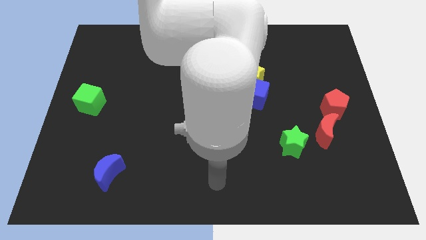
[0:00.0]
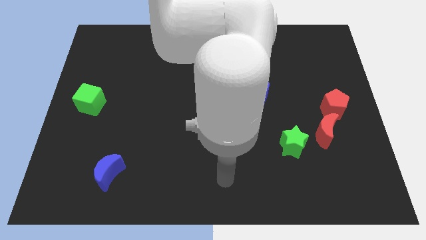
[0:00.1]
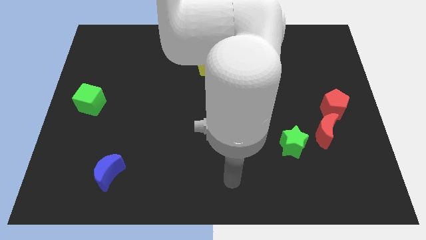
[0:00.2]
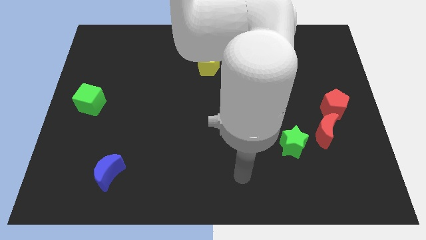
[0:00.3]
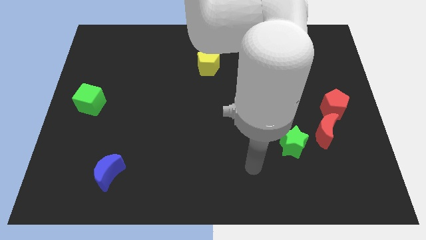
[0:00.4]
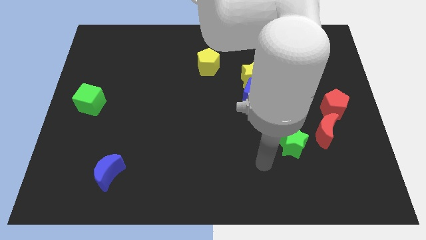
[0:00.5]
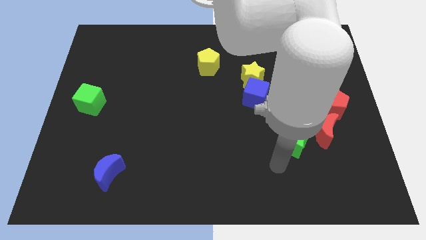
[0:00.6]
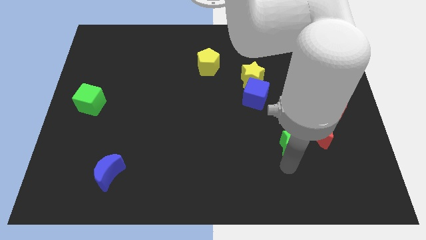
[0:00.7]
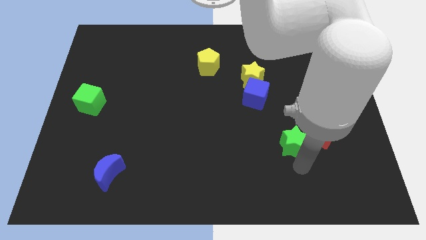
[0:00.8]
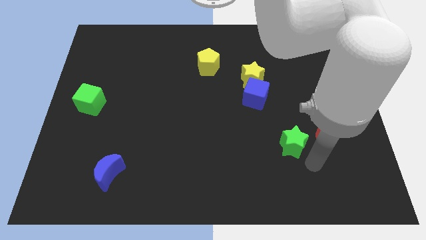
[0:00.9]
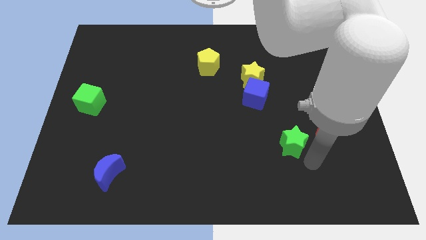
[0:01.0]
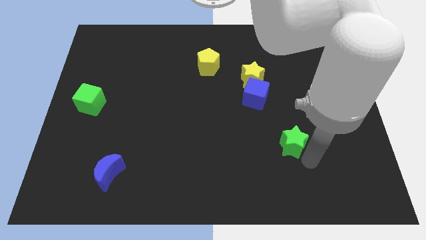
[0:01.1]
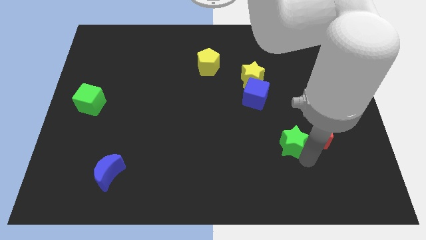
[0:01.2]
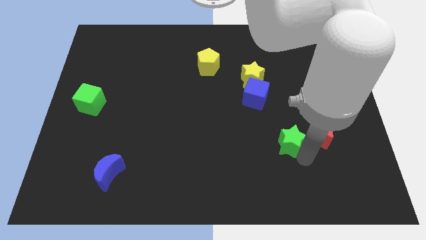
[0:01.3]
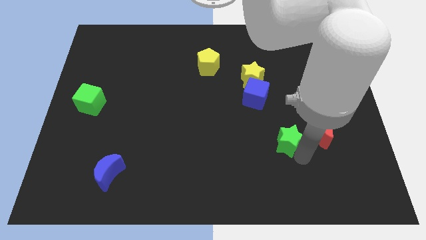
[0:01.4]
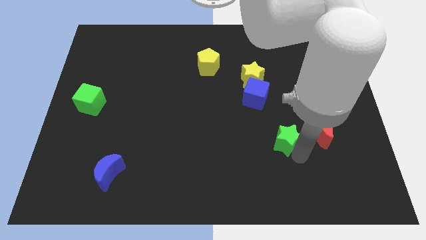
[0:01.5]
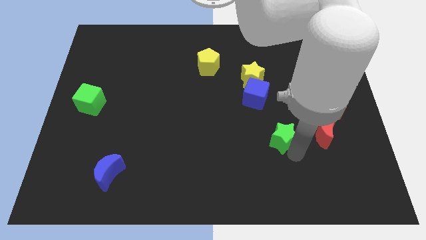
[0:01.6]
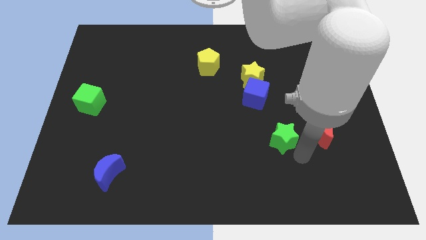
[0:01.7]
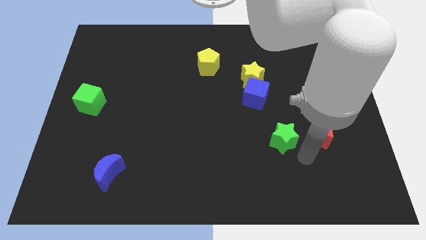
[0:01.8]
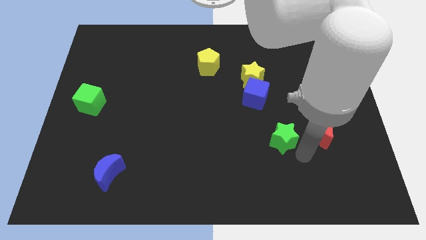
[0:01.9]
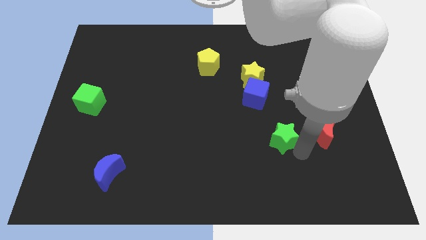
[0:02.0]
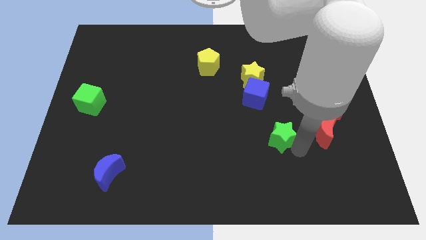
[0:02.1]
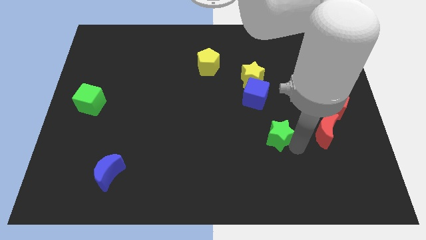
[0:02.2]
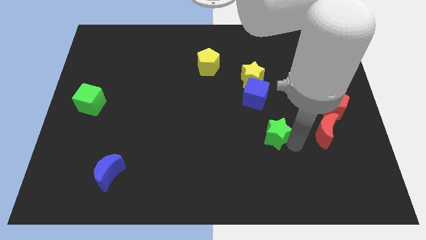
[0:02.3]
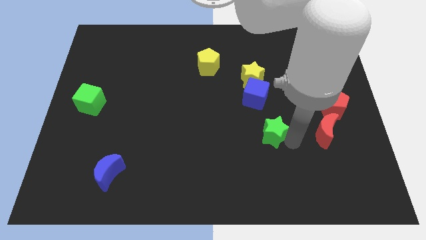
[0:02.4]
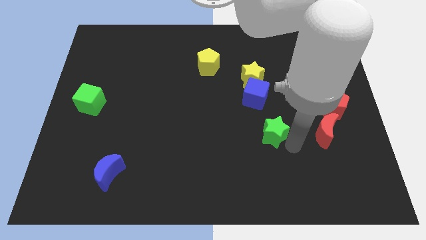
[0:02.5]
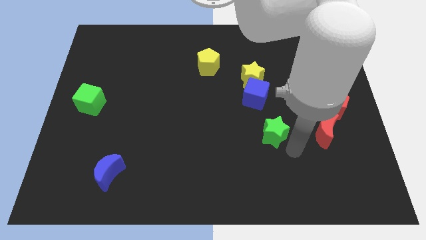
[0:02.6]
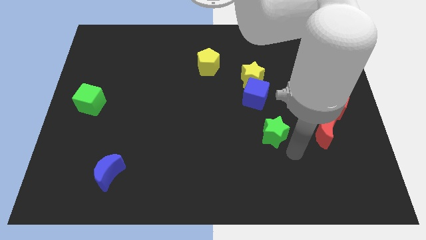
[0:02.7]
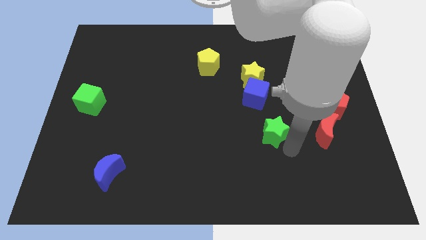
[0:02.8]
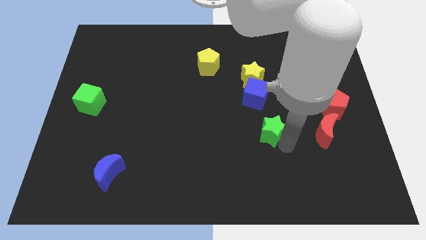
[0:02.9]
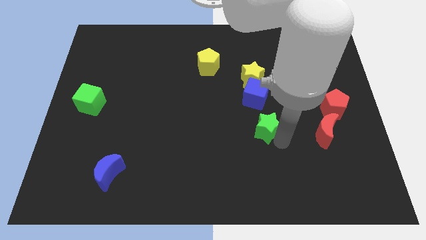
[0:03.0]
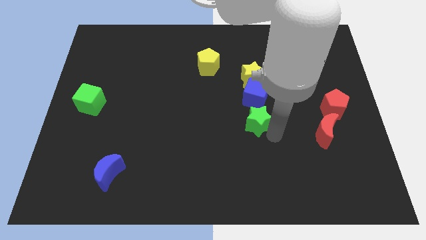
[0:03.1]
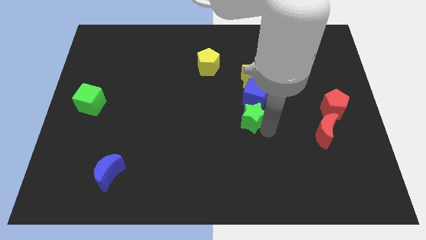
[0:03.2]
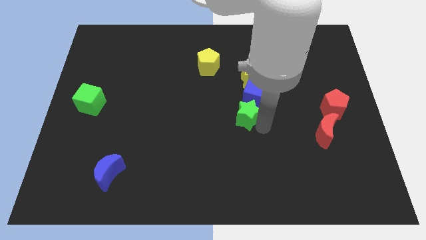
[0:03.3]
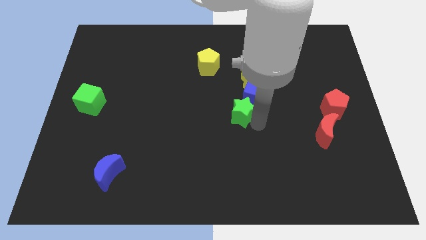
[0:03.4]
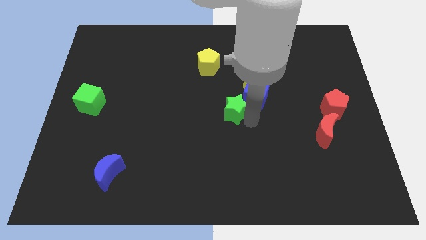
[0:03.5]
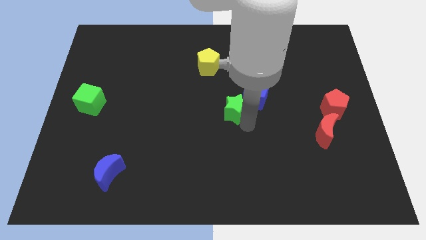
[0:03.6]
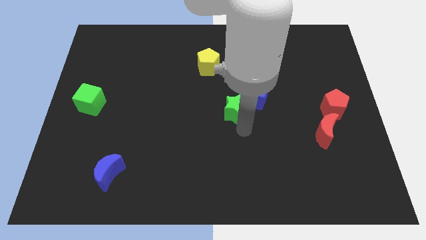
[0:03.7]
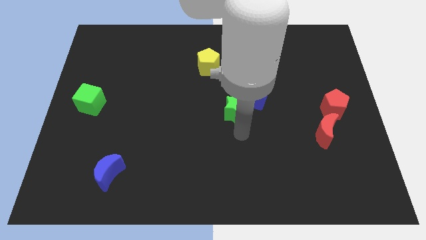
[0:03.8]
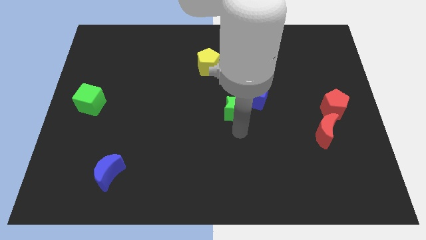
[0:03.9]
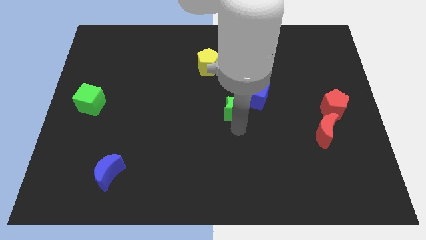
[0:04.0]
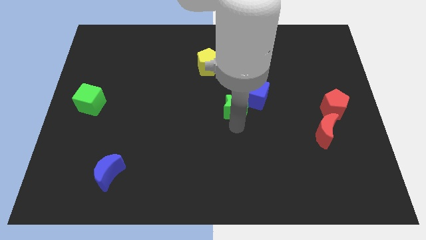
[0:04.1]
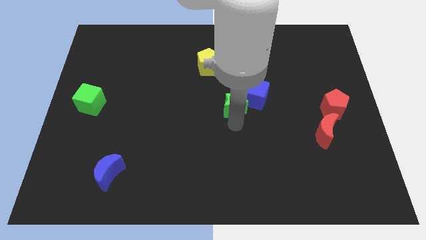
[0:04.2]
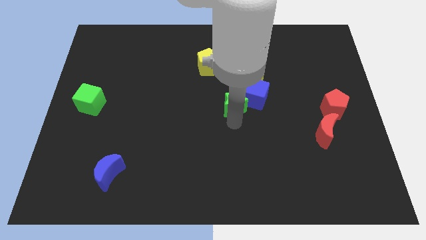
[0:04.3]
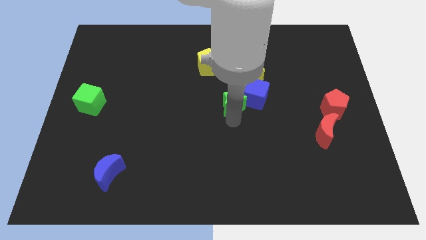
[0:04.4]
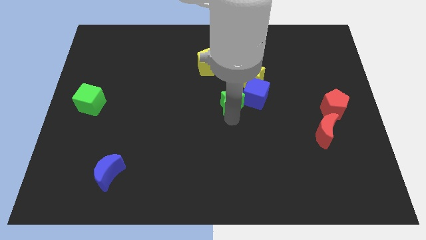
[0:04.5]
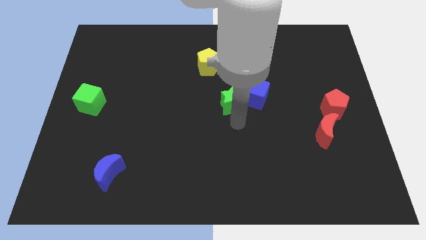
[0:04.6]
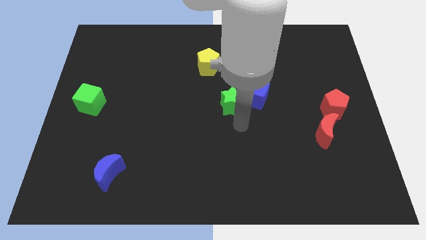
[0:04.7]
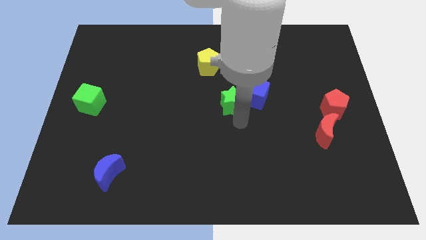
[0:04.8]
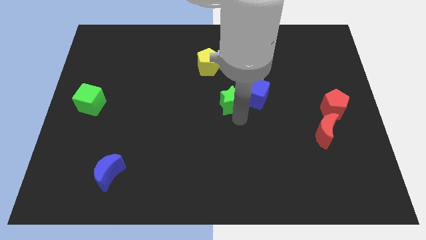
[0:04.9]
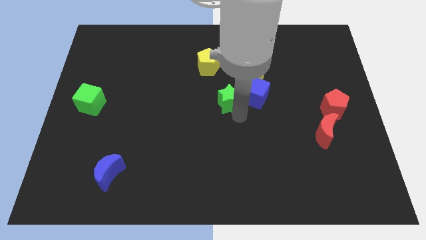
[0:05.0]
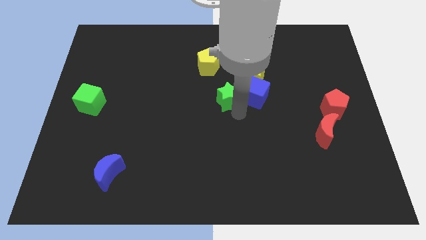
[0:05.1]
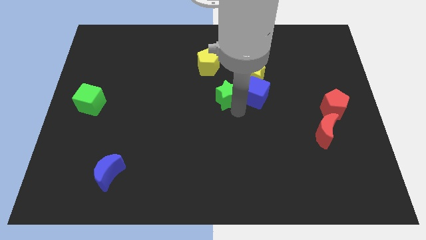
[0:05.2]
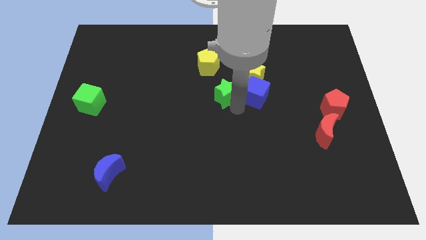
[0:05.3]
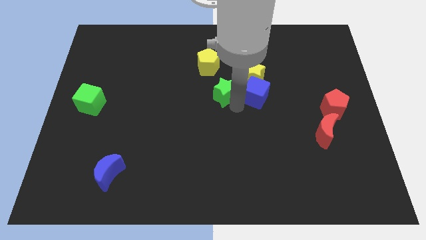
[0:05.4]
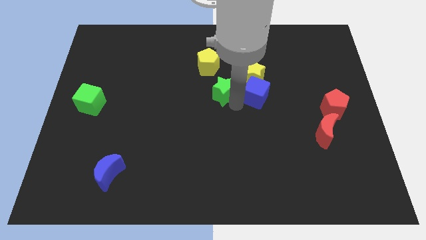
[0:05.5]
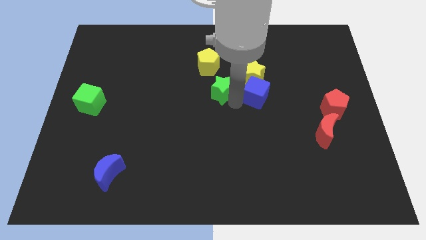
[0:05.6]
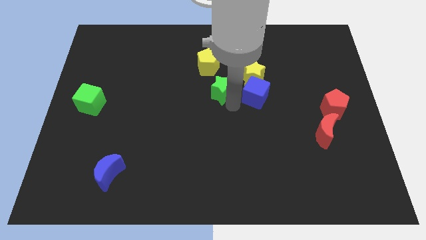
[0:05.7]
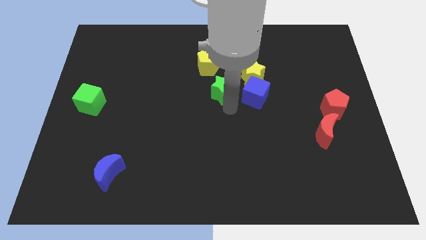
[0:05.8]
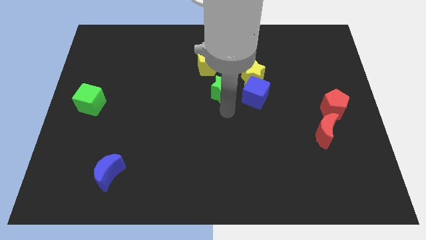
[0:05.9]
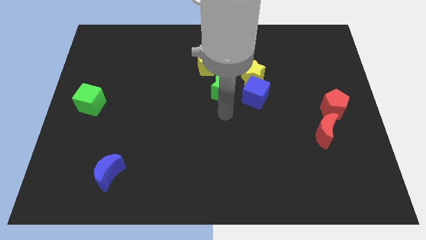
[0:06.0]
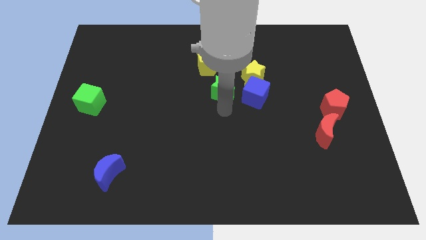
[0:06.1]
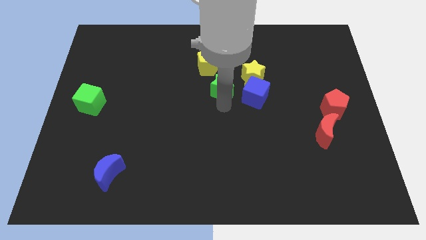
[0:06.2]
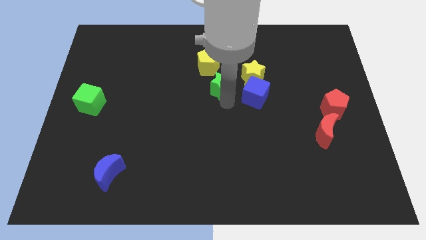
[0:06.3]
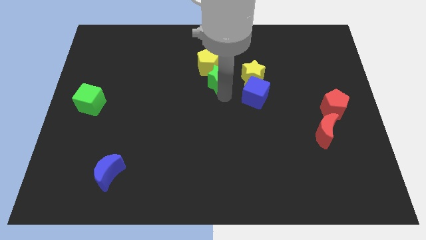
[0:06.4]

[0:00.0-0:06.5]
put the green star to the yellow pentagon
